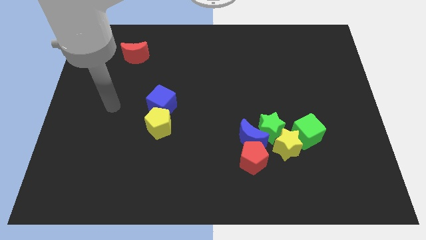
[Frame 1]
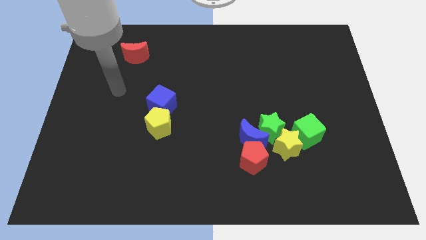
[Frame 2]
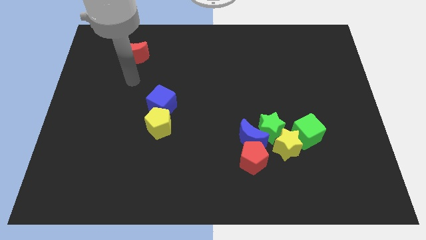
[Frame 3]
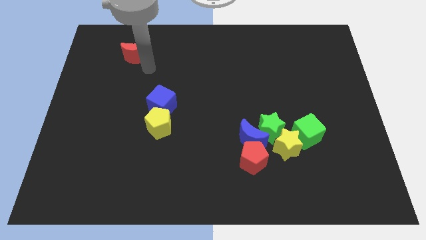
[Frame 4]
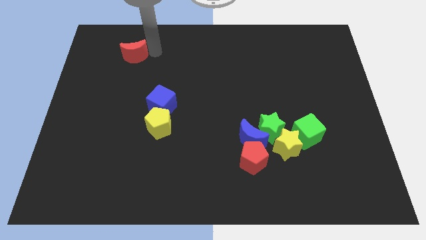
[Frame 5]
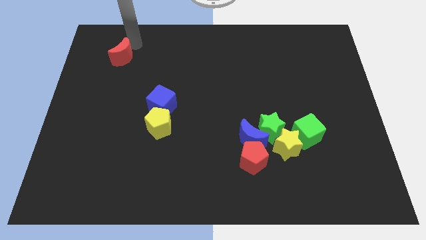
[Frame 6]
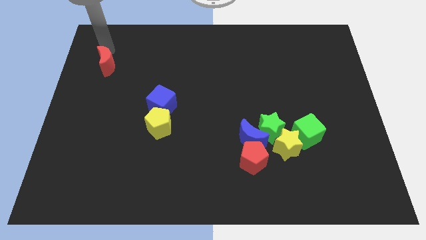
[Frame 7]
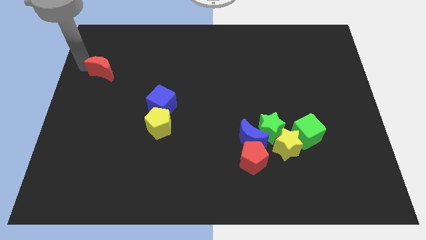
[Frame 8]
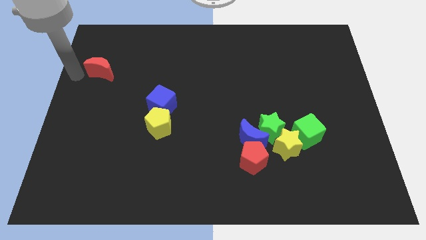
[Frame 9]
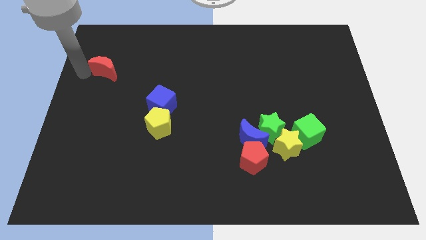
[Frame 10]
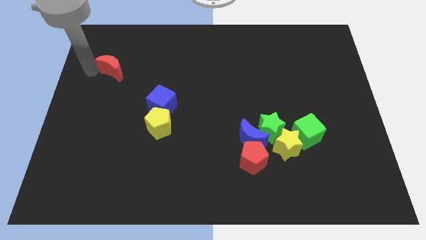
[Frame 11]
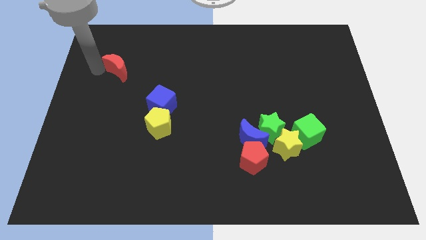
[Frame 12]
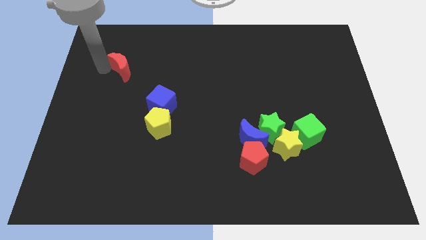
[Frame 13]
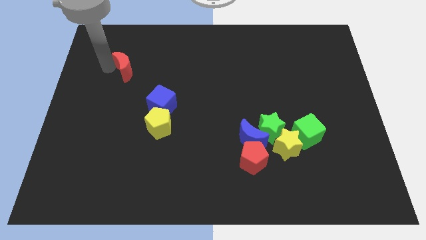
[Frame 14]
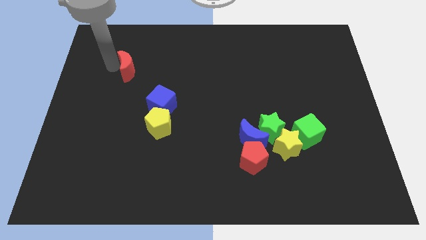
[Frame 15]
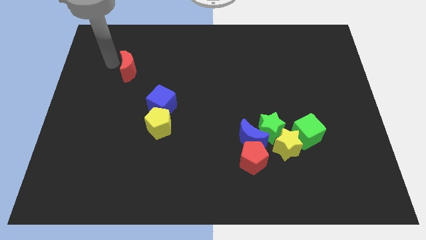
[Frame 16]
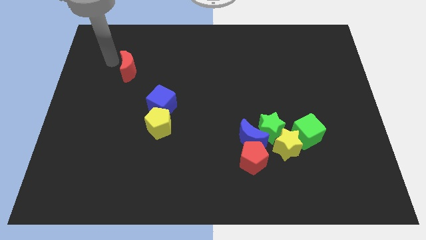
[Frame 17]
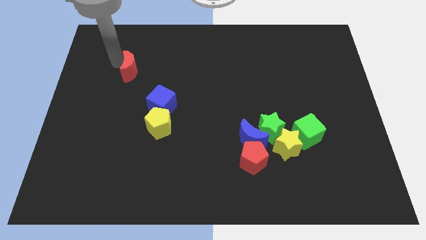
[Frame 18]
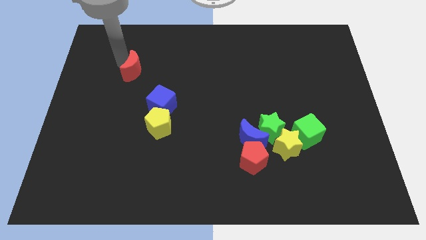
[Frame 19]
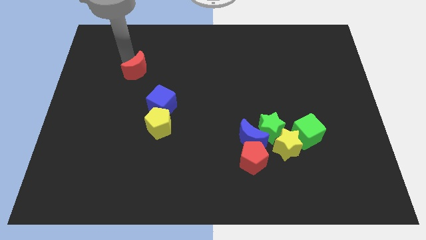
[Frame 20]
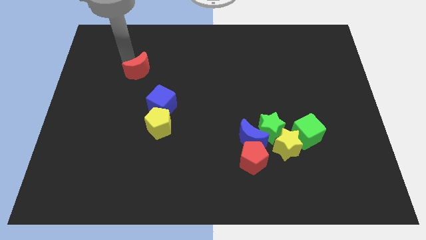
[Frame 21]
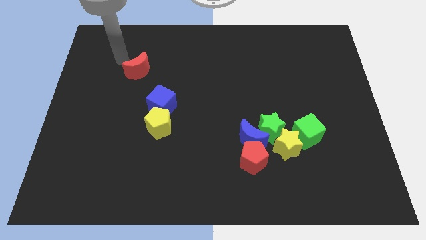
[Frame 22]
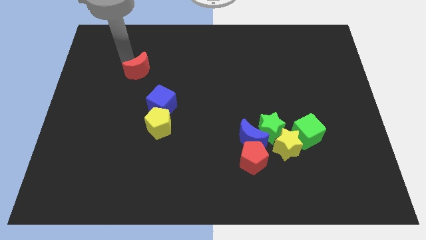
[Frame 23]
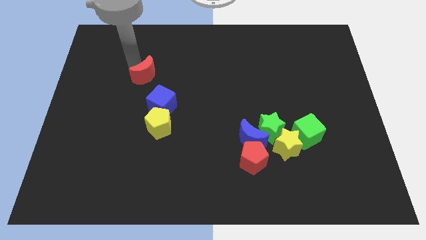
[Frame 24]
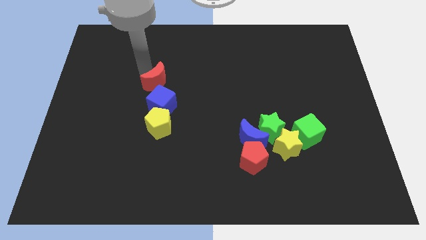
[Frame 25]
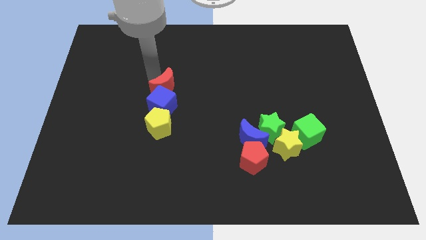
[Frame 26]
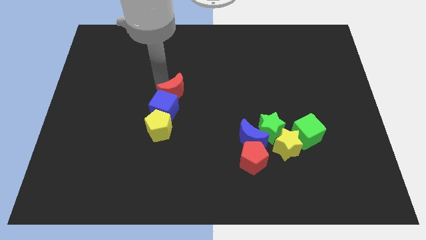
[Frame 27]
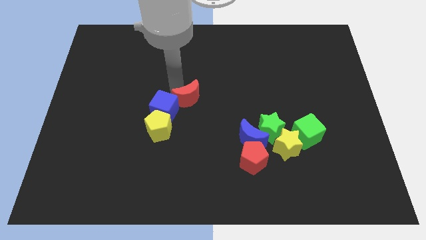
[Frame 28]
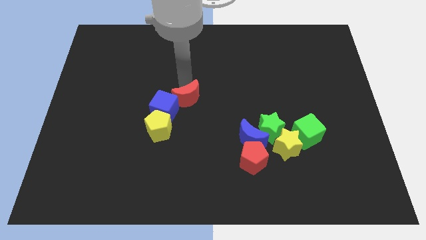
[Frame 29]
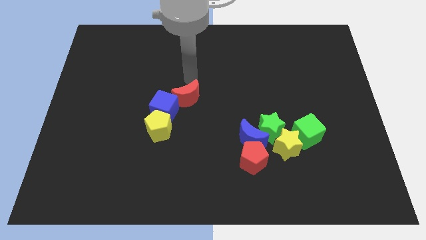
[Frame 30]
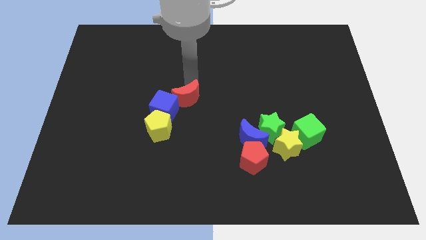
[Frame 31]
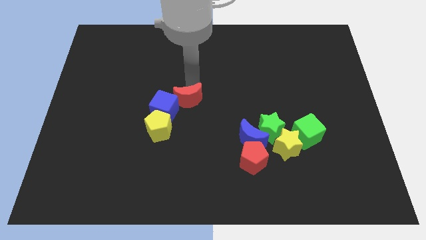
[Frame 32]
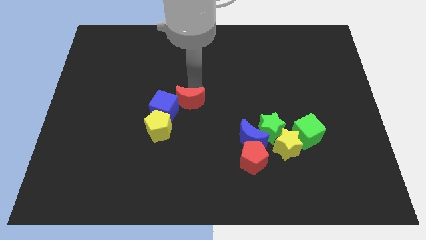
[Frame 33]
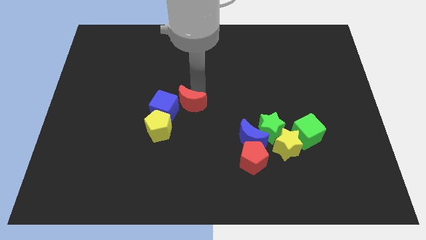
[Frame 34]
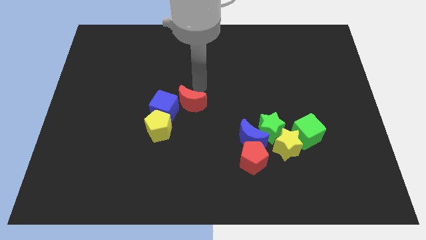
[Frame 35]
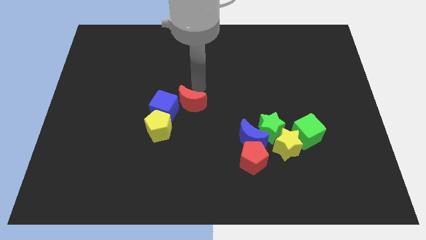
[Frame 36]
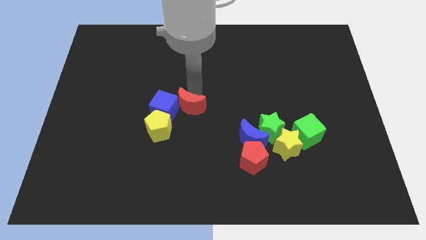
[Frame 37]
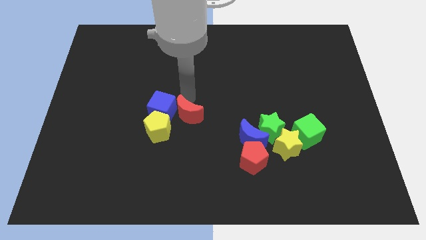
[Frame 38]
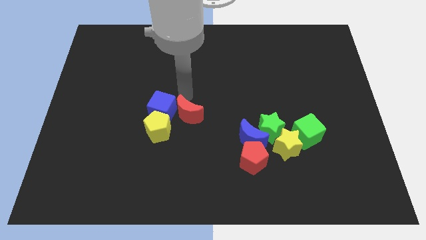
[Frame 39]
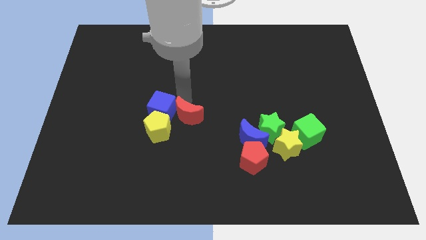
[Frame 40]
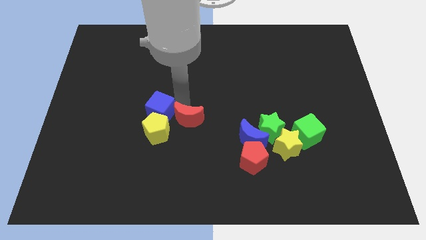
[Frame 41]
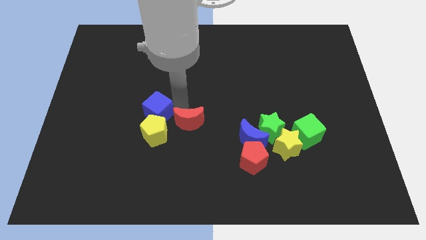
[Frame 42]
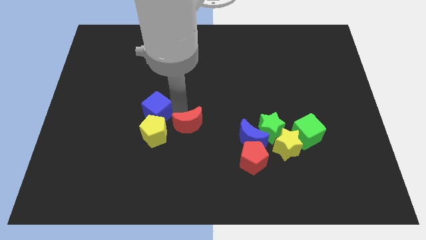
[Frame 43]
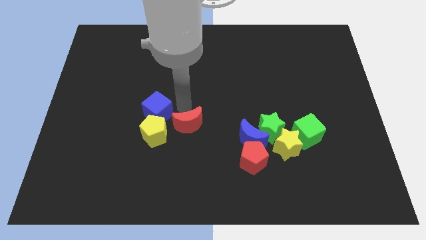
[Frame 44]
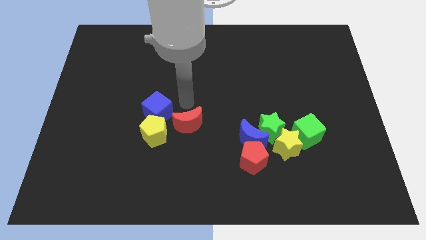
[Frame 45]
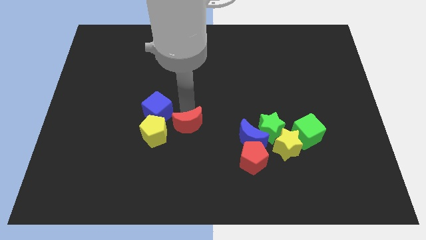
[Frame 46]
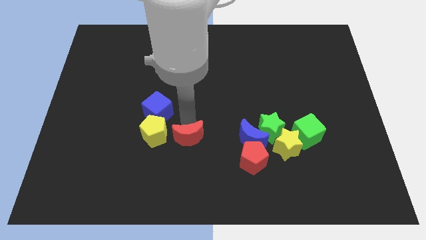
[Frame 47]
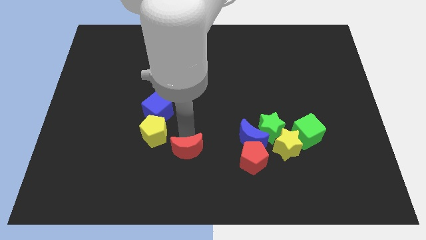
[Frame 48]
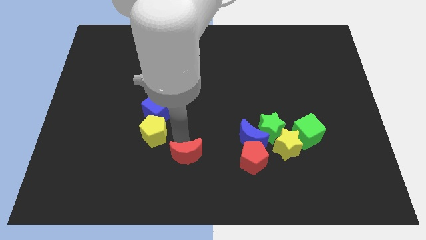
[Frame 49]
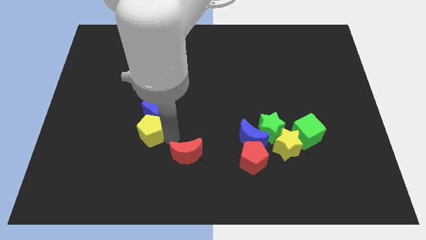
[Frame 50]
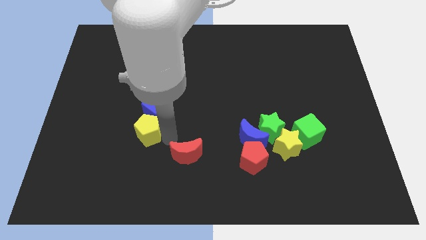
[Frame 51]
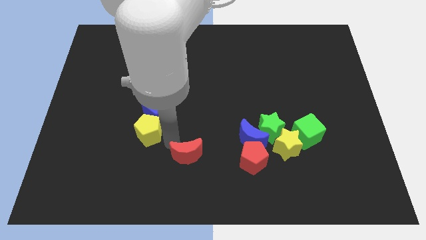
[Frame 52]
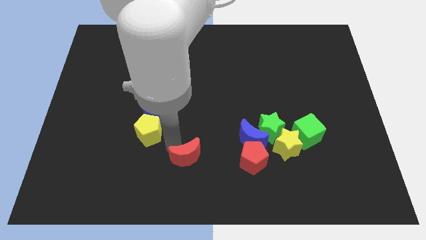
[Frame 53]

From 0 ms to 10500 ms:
slide the red moon to the bottom side
